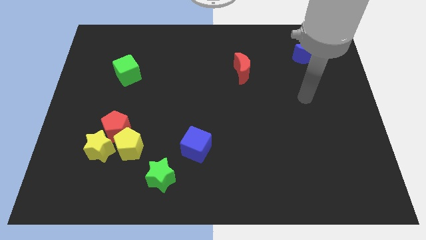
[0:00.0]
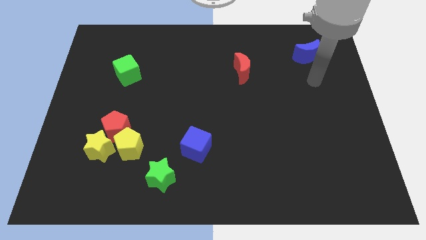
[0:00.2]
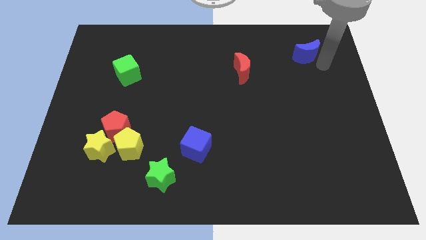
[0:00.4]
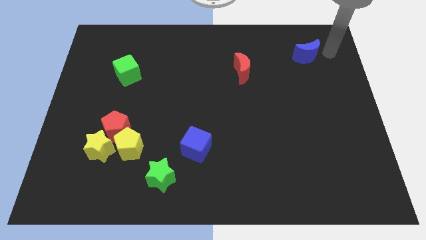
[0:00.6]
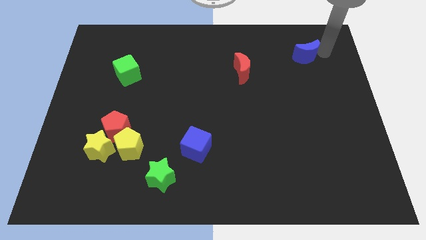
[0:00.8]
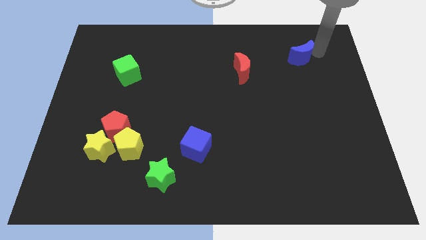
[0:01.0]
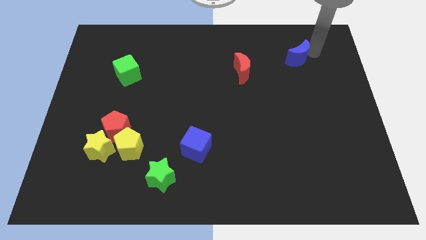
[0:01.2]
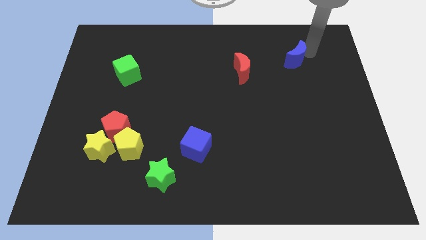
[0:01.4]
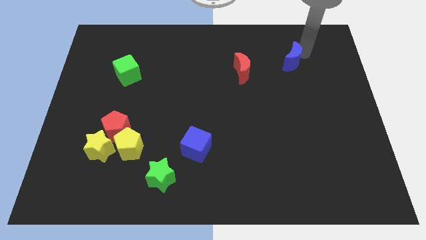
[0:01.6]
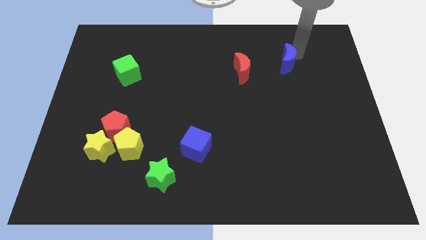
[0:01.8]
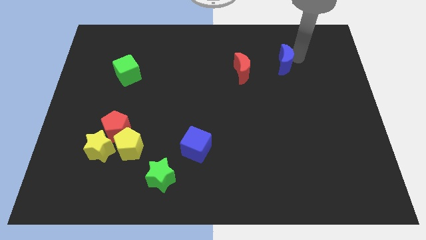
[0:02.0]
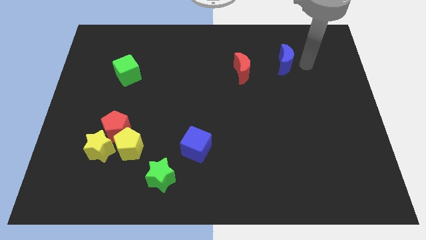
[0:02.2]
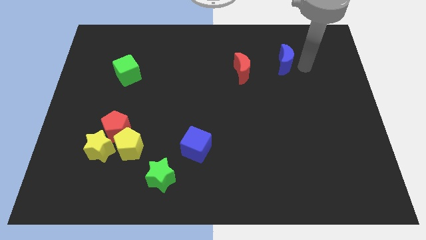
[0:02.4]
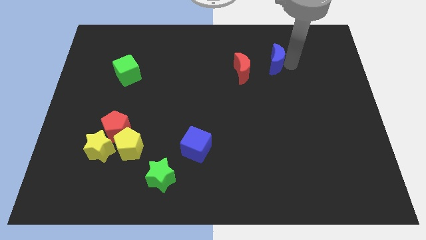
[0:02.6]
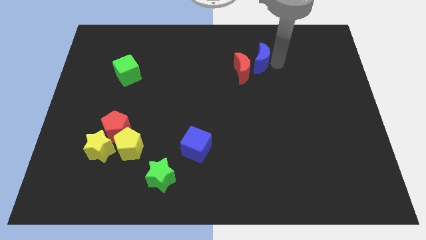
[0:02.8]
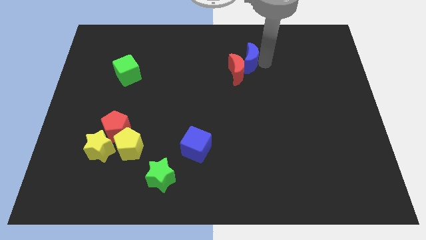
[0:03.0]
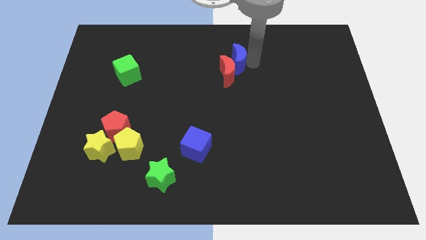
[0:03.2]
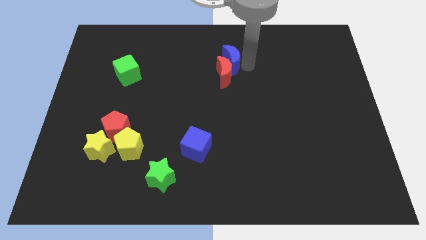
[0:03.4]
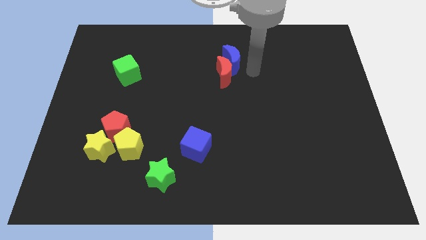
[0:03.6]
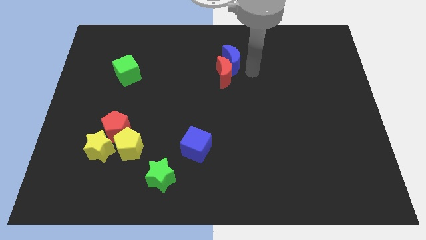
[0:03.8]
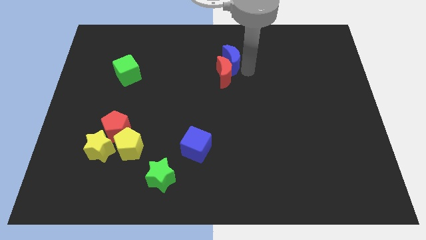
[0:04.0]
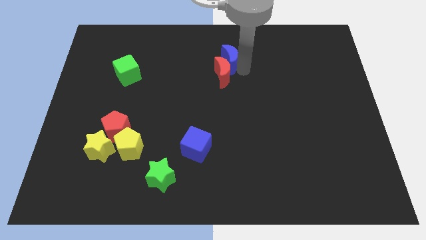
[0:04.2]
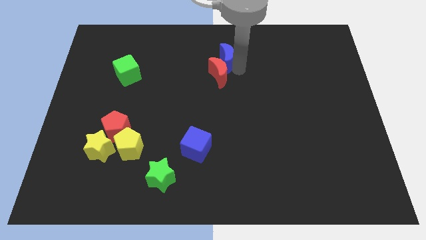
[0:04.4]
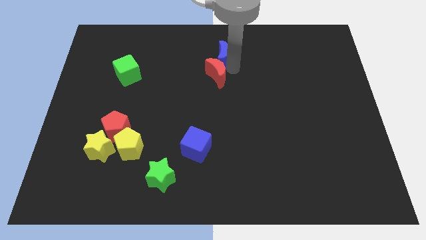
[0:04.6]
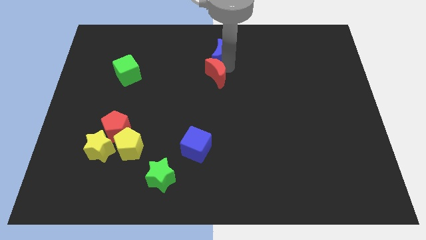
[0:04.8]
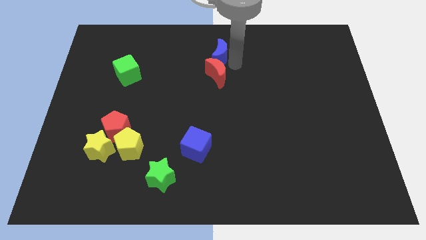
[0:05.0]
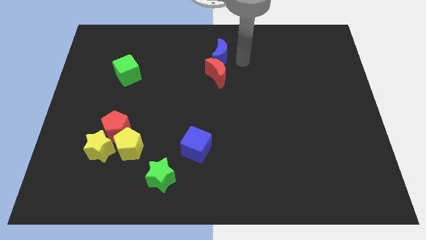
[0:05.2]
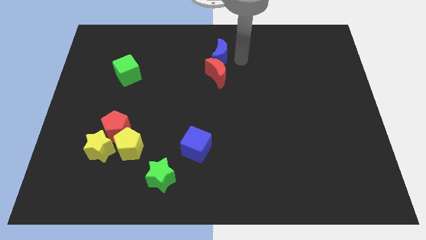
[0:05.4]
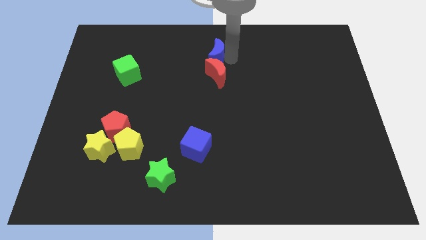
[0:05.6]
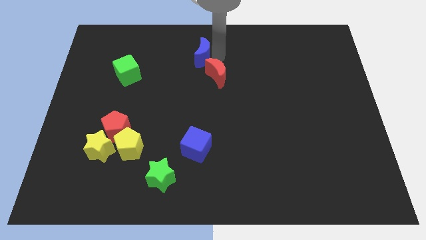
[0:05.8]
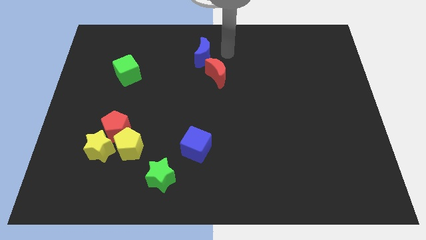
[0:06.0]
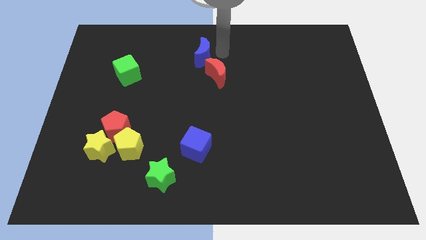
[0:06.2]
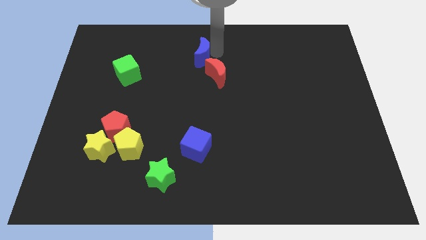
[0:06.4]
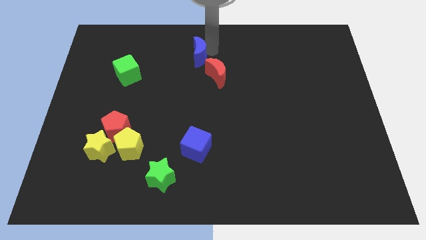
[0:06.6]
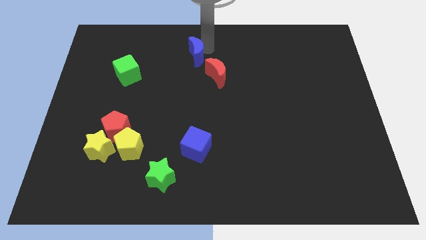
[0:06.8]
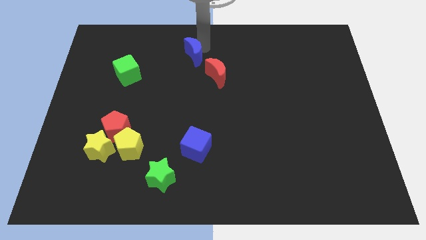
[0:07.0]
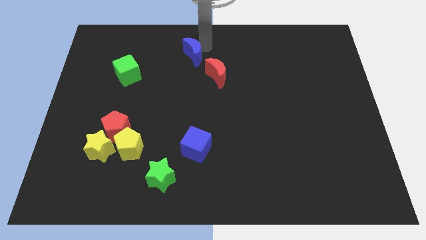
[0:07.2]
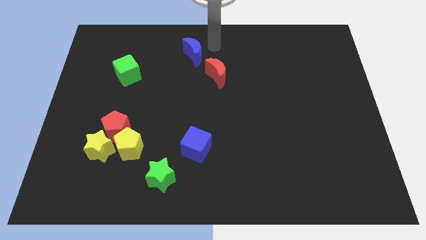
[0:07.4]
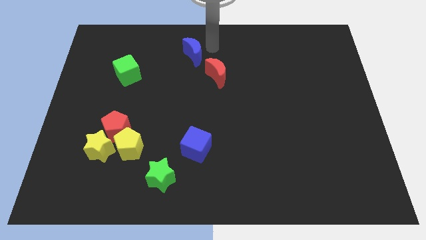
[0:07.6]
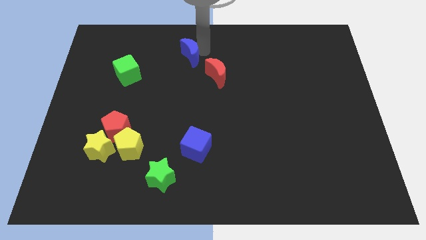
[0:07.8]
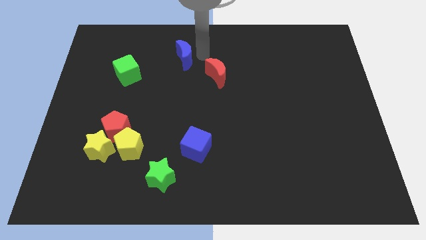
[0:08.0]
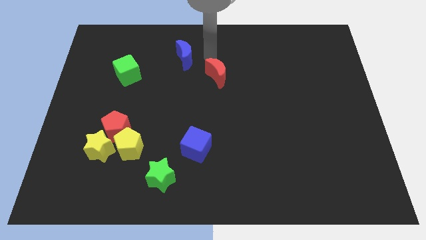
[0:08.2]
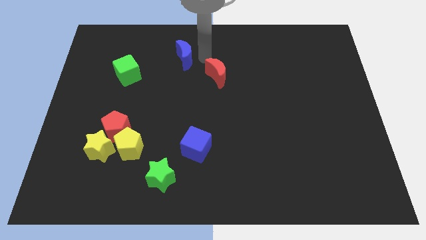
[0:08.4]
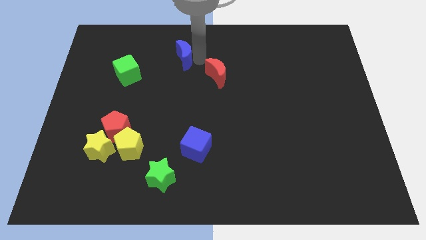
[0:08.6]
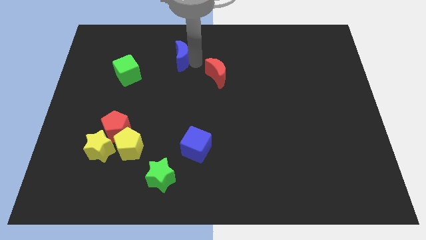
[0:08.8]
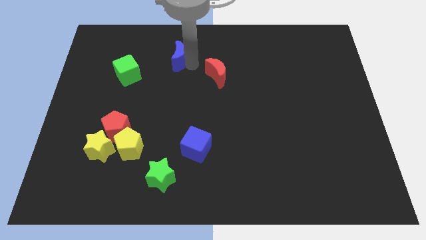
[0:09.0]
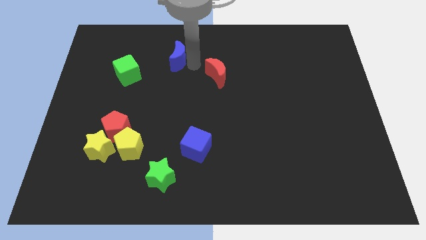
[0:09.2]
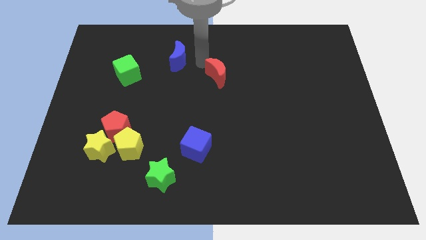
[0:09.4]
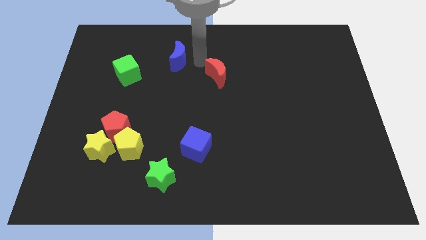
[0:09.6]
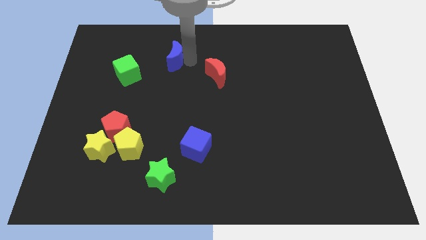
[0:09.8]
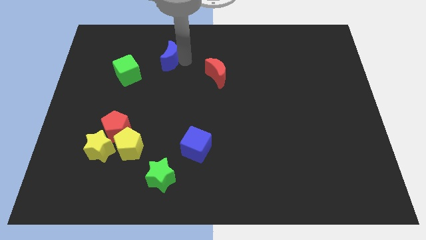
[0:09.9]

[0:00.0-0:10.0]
move the blue moon diagonally up and to the right of the green cube

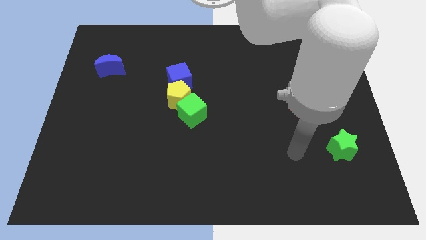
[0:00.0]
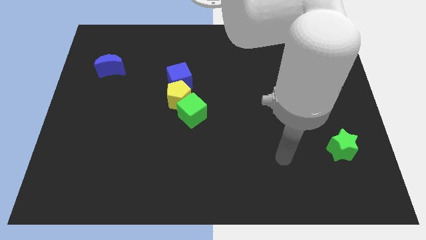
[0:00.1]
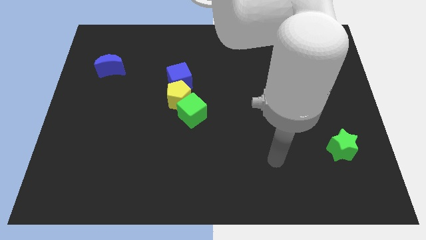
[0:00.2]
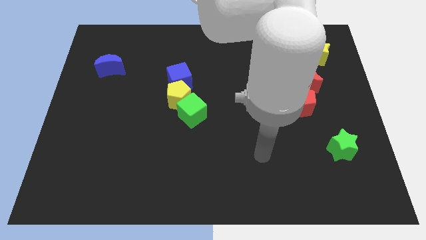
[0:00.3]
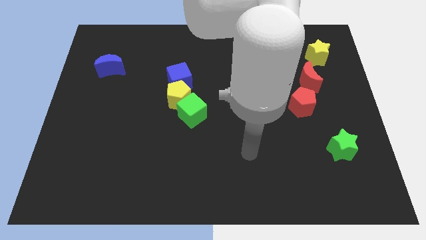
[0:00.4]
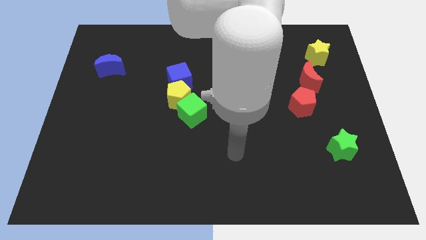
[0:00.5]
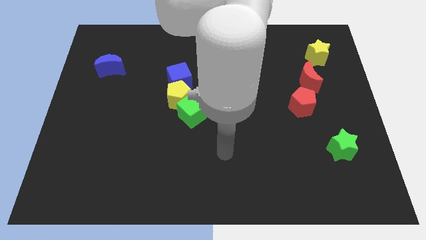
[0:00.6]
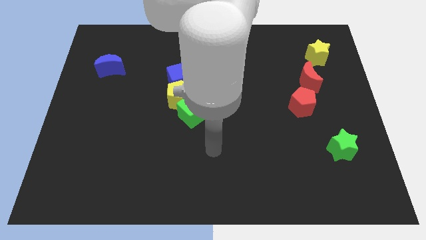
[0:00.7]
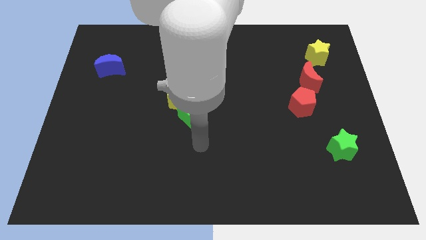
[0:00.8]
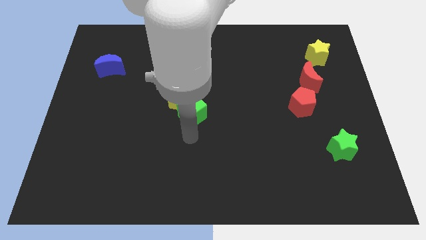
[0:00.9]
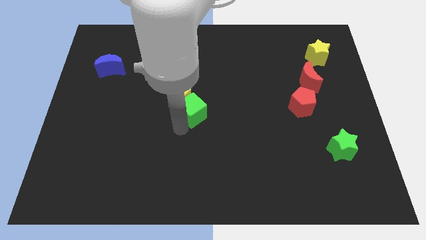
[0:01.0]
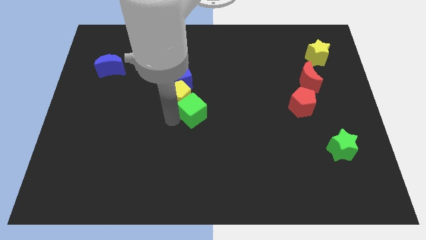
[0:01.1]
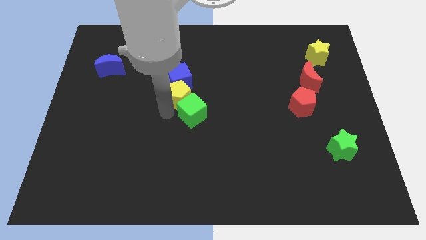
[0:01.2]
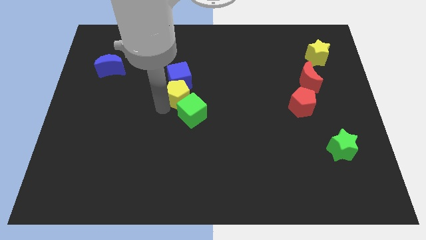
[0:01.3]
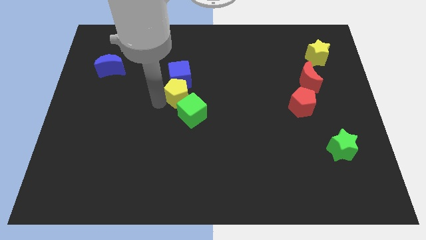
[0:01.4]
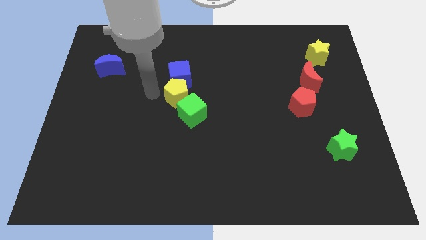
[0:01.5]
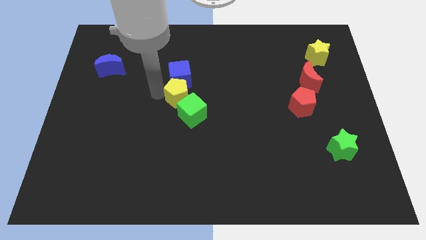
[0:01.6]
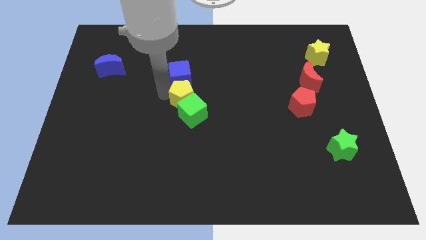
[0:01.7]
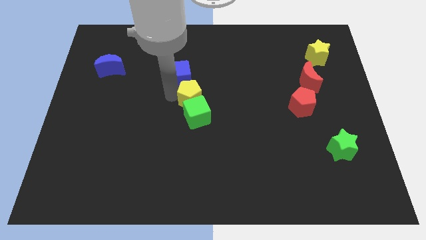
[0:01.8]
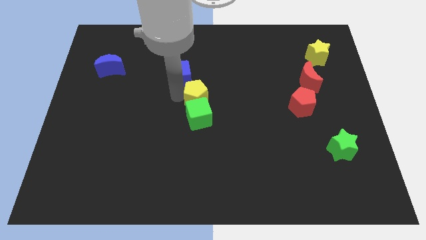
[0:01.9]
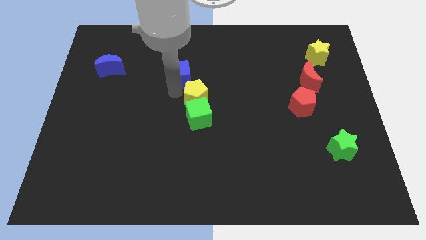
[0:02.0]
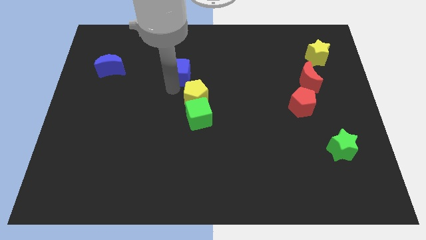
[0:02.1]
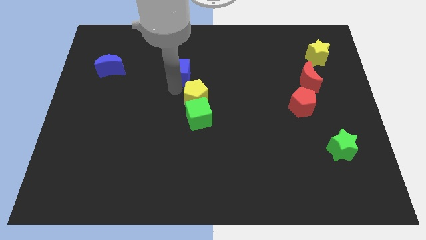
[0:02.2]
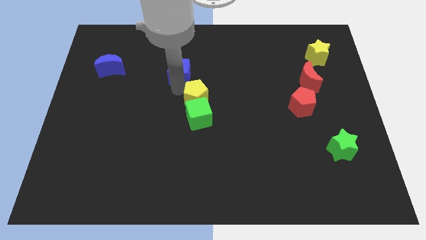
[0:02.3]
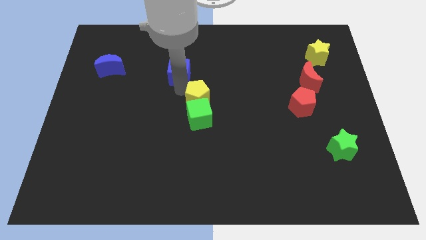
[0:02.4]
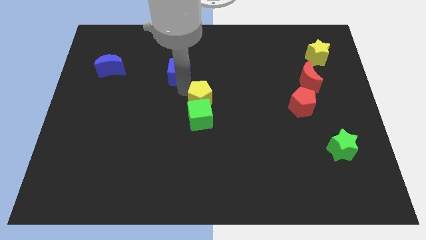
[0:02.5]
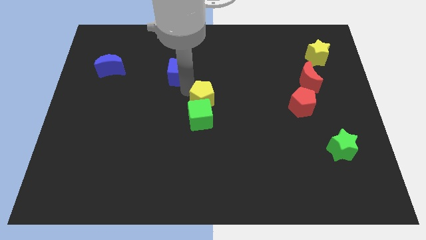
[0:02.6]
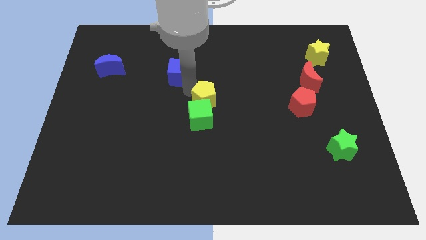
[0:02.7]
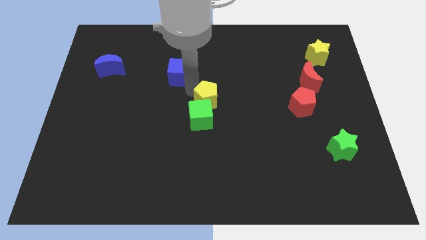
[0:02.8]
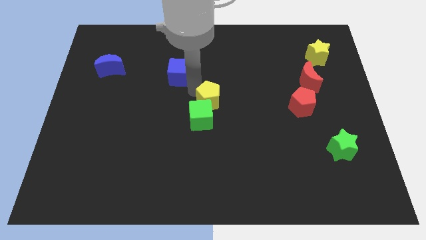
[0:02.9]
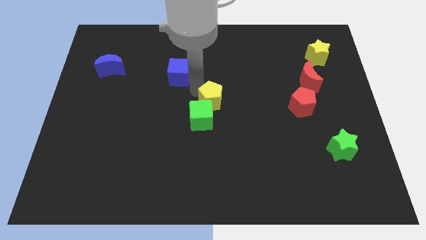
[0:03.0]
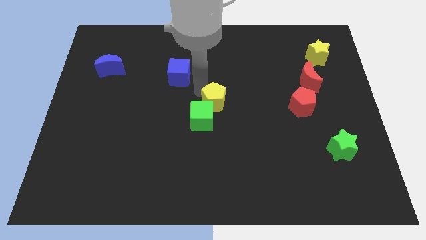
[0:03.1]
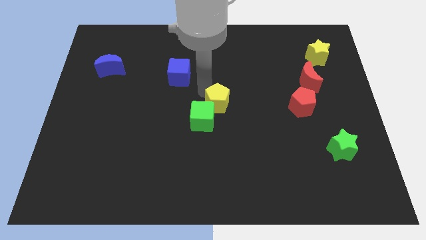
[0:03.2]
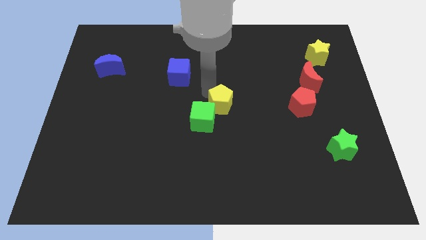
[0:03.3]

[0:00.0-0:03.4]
slide the yellow pentagon right of the green cube
